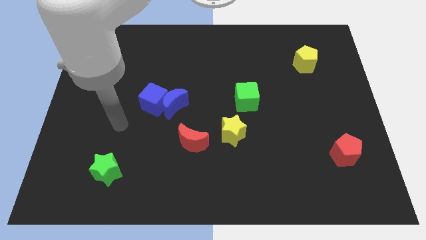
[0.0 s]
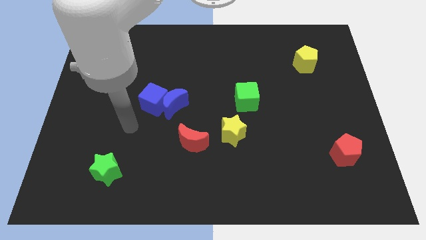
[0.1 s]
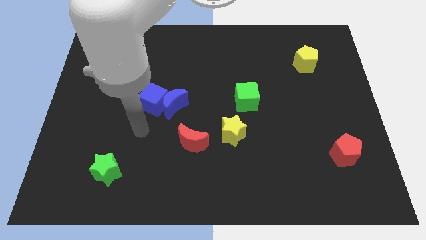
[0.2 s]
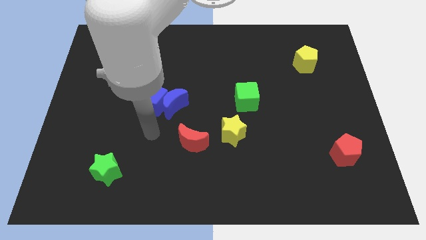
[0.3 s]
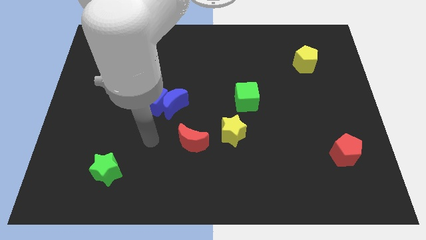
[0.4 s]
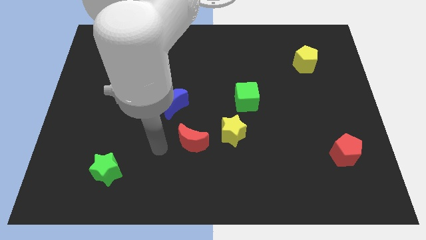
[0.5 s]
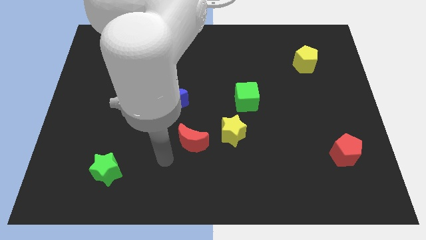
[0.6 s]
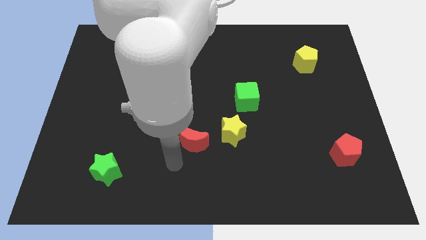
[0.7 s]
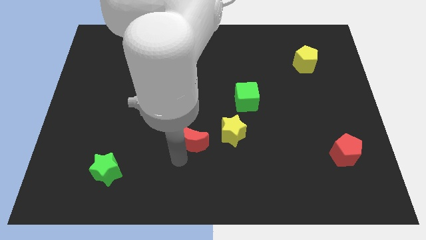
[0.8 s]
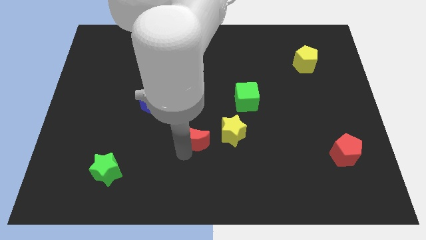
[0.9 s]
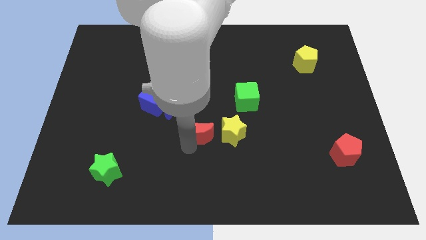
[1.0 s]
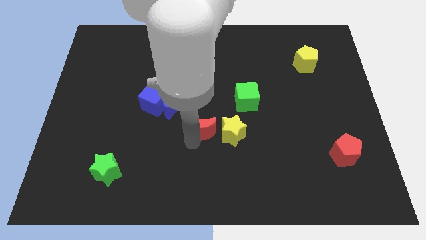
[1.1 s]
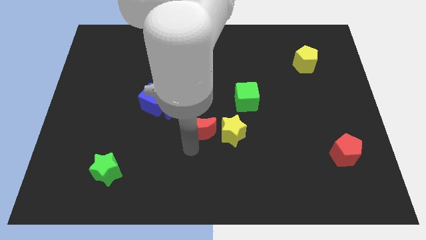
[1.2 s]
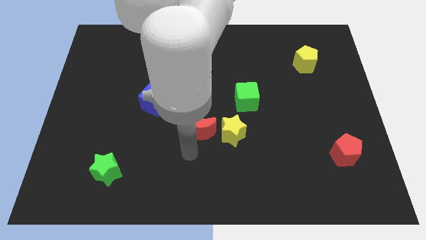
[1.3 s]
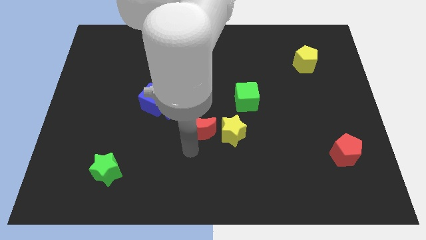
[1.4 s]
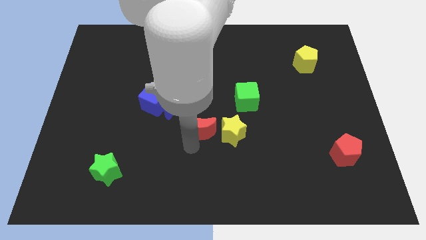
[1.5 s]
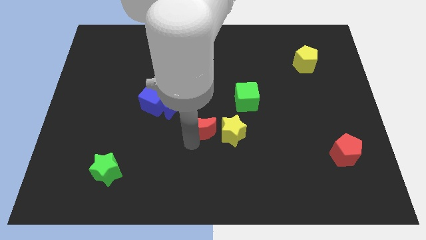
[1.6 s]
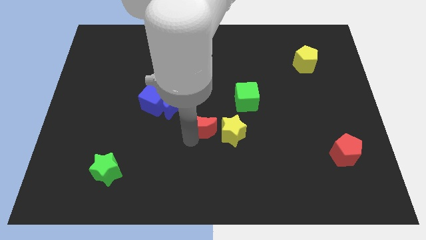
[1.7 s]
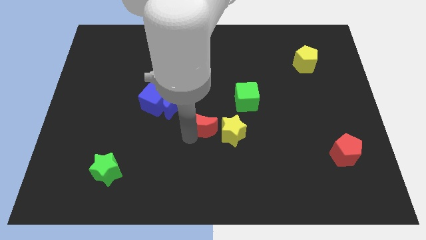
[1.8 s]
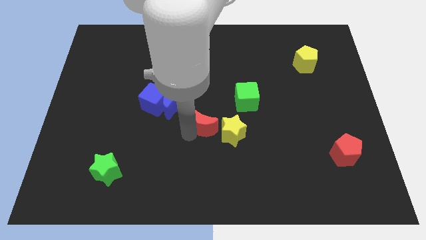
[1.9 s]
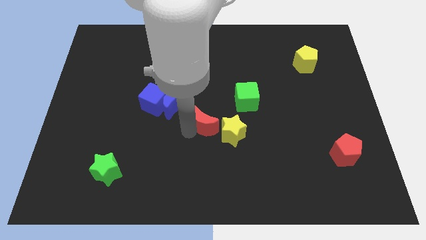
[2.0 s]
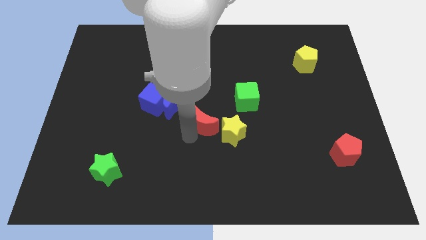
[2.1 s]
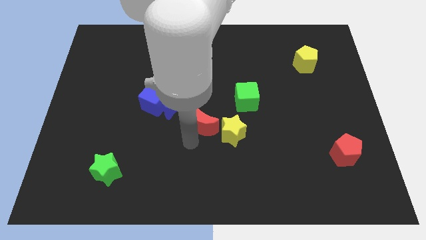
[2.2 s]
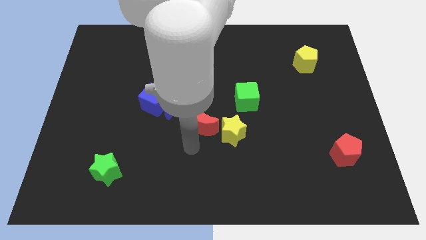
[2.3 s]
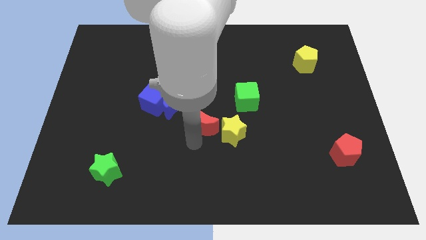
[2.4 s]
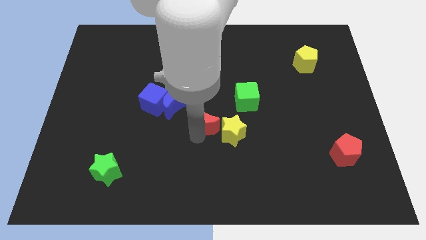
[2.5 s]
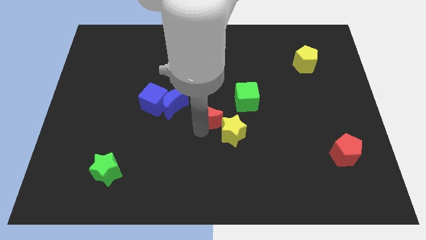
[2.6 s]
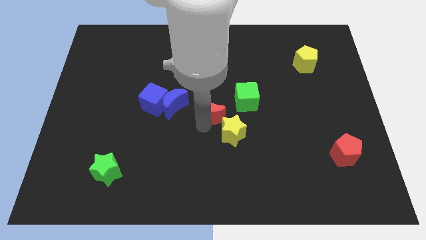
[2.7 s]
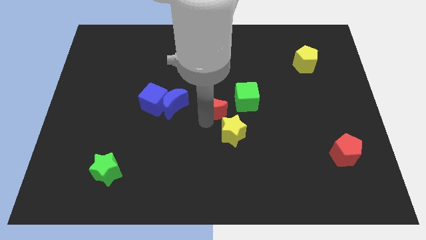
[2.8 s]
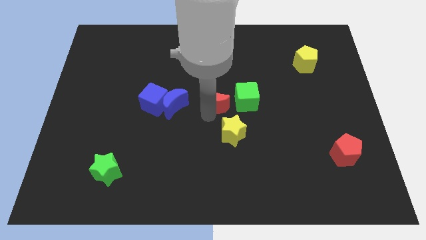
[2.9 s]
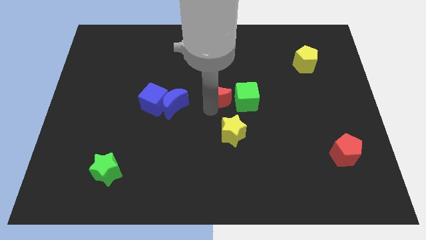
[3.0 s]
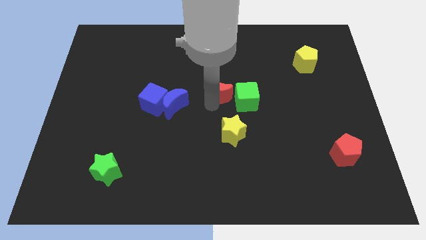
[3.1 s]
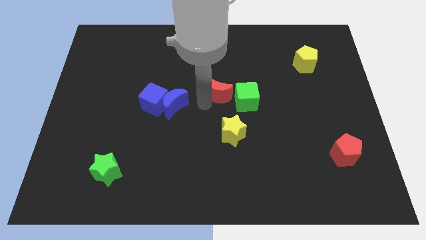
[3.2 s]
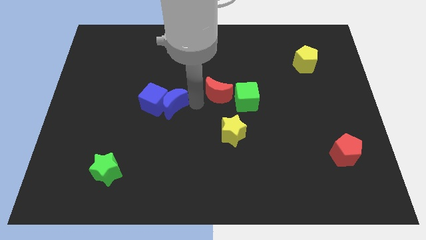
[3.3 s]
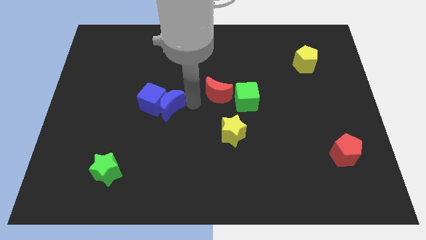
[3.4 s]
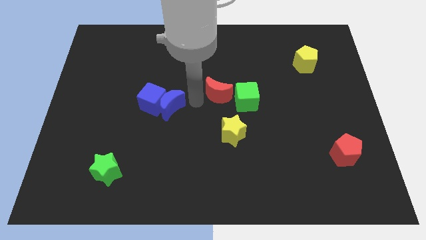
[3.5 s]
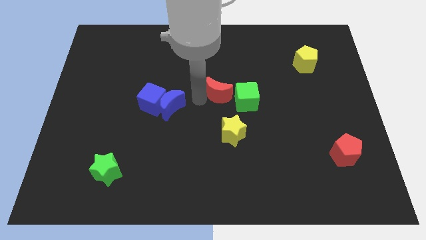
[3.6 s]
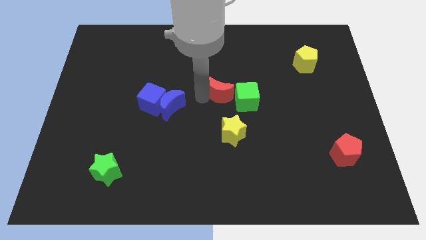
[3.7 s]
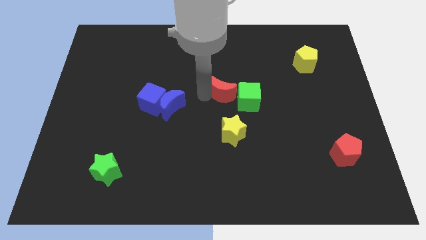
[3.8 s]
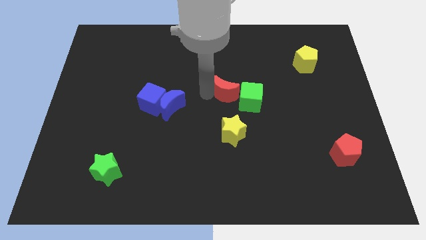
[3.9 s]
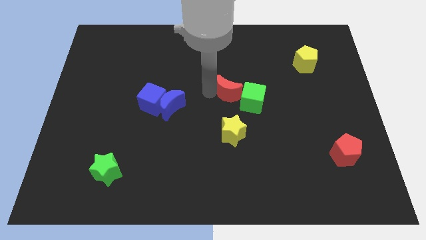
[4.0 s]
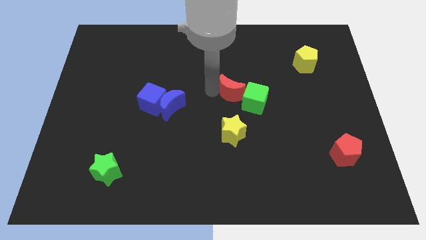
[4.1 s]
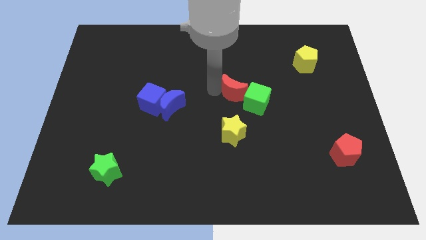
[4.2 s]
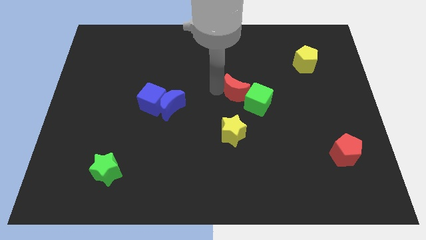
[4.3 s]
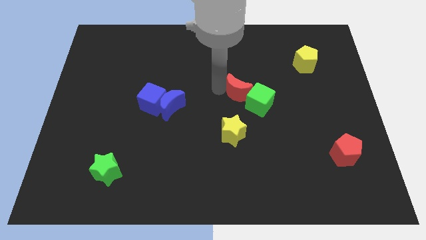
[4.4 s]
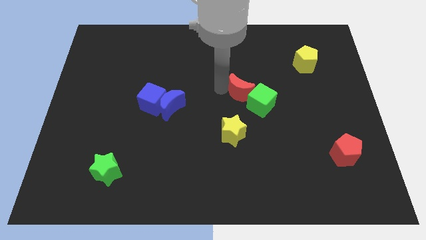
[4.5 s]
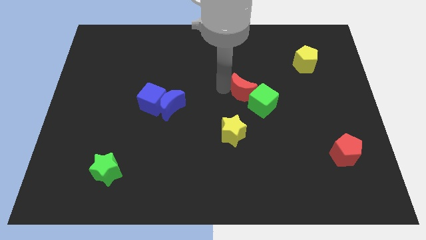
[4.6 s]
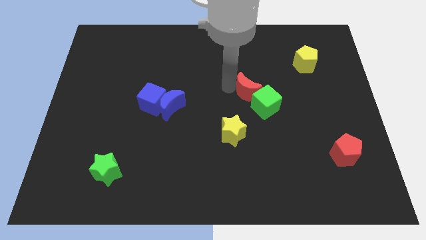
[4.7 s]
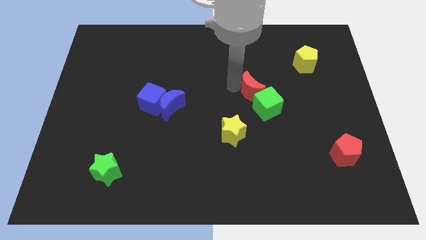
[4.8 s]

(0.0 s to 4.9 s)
push the red moon diagonally upwards and to the right

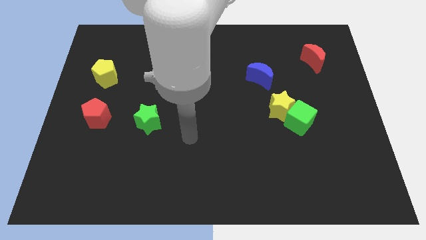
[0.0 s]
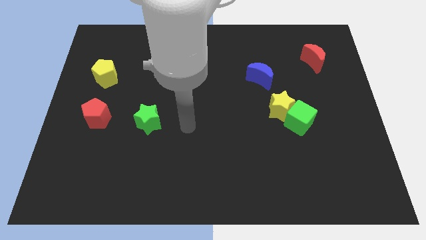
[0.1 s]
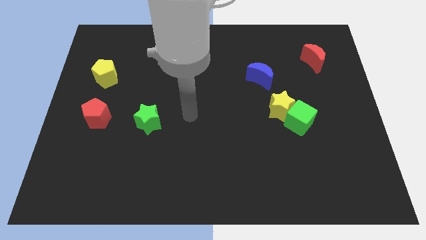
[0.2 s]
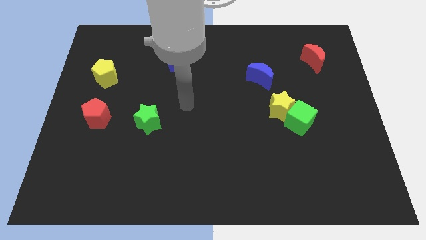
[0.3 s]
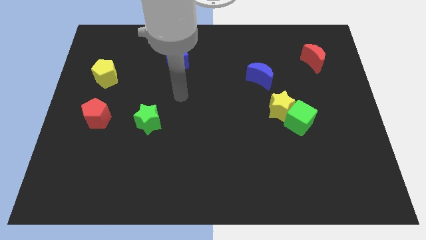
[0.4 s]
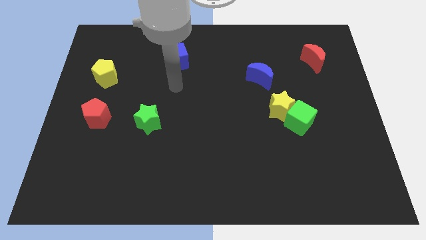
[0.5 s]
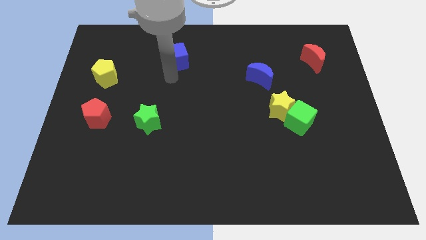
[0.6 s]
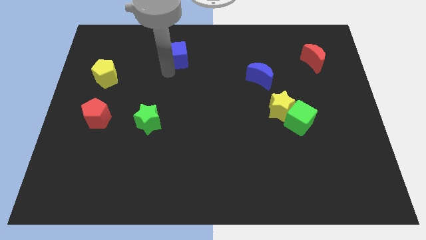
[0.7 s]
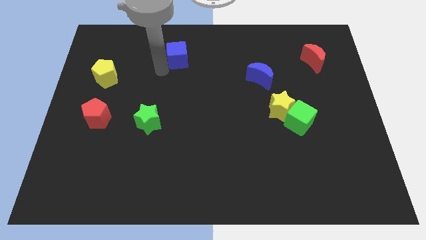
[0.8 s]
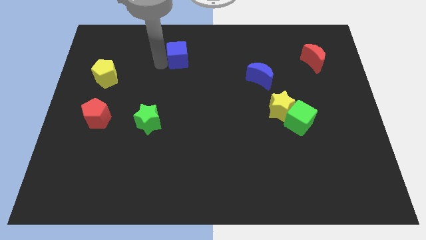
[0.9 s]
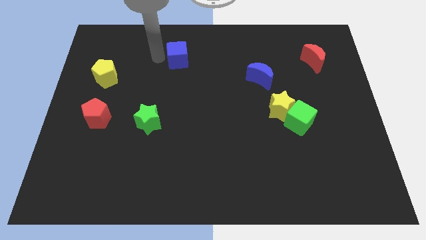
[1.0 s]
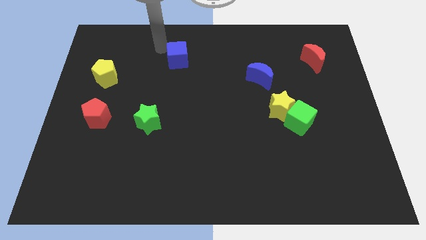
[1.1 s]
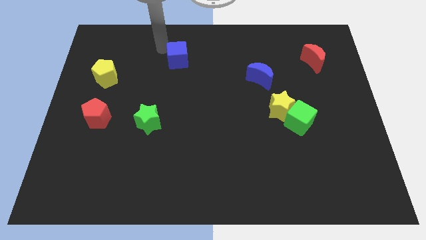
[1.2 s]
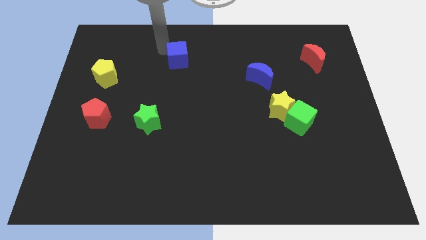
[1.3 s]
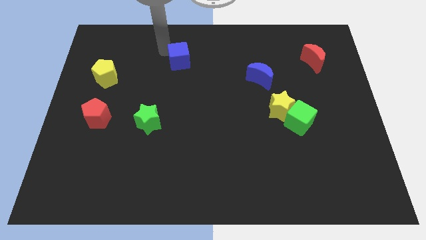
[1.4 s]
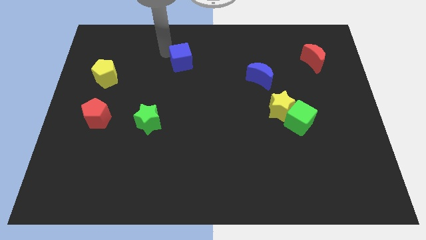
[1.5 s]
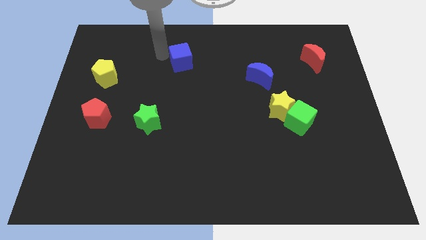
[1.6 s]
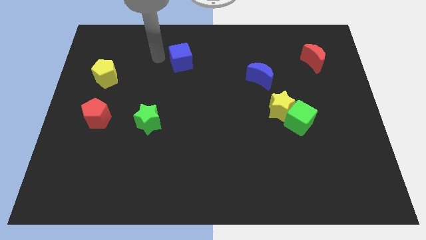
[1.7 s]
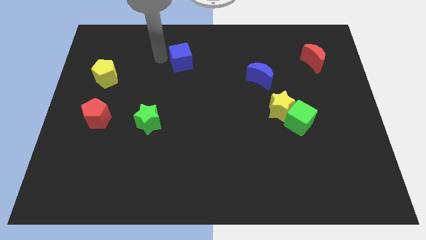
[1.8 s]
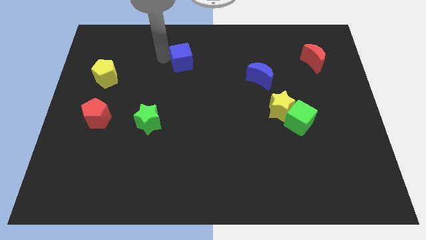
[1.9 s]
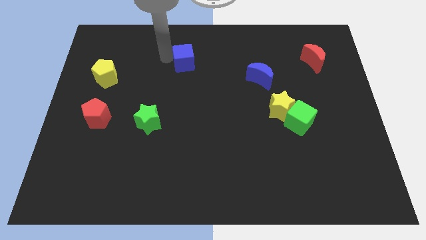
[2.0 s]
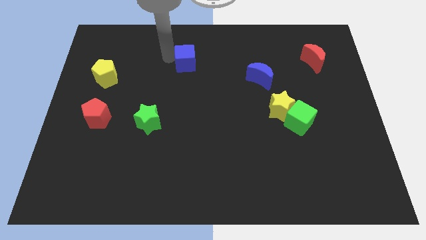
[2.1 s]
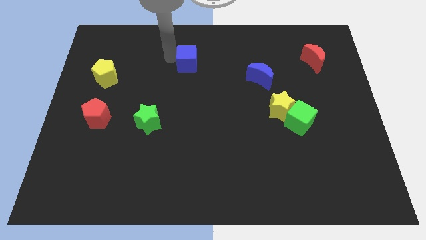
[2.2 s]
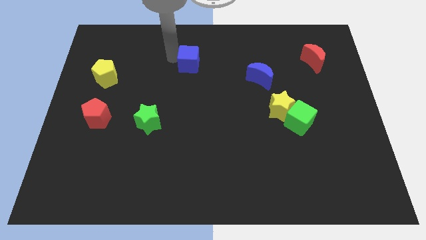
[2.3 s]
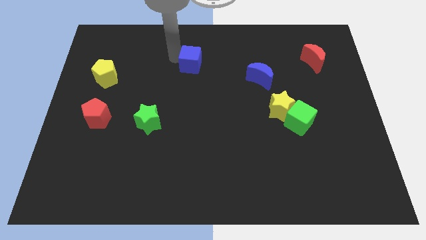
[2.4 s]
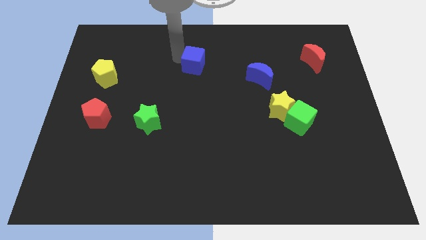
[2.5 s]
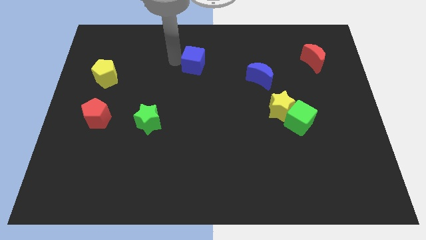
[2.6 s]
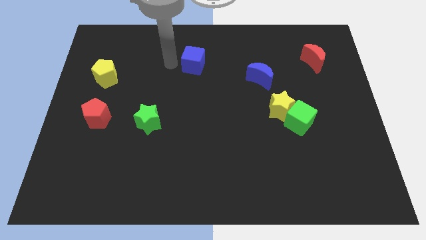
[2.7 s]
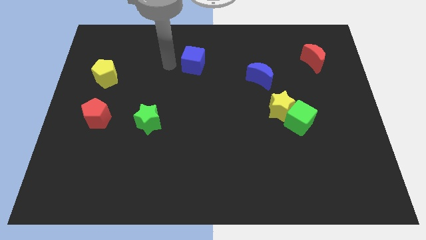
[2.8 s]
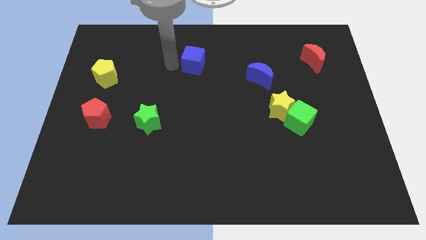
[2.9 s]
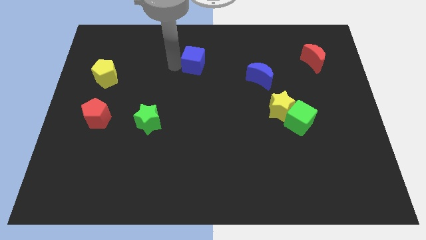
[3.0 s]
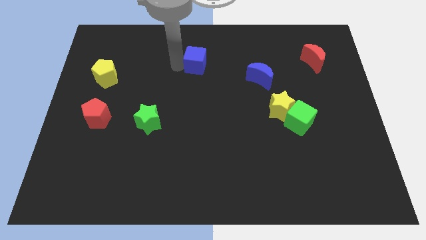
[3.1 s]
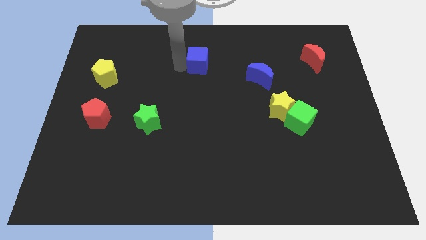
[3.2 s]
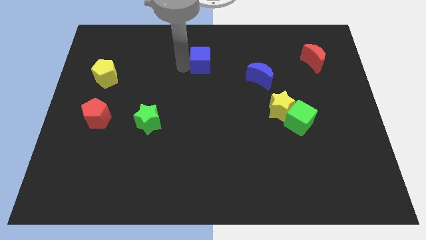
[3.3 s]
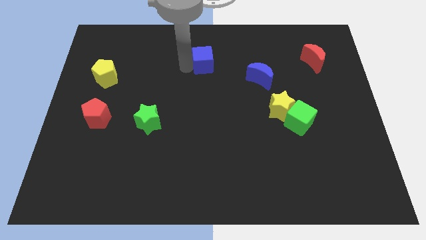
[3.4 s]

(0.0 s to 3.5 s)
move the blue cube somewhat to the right

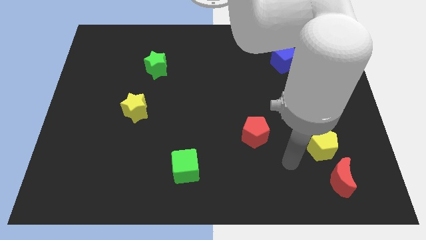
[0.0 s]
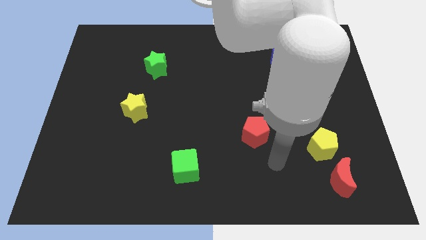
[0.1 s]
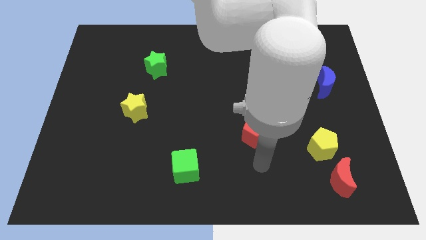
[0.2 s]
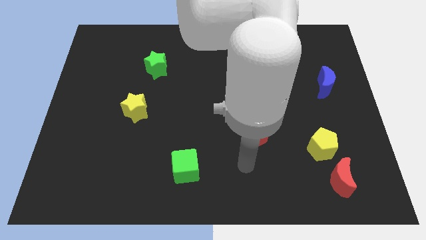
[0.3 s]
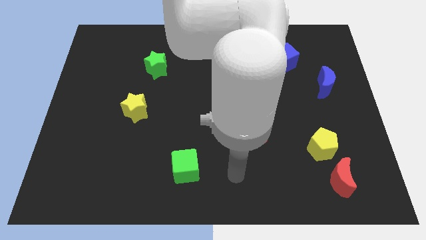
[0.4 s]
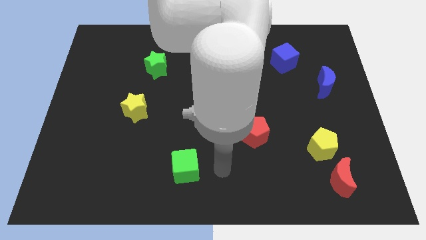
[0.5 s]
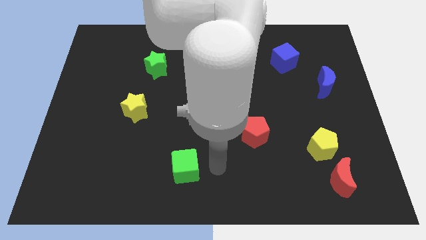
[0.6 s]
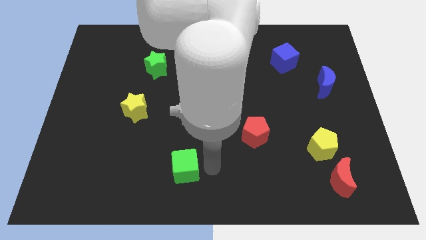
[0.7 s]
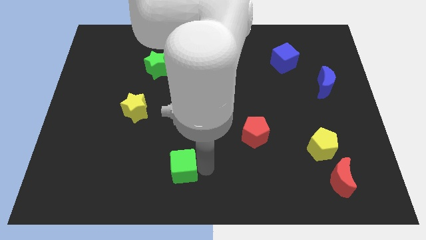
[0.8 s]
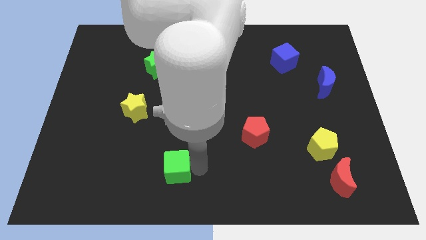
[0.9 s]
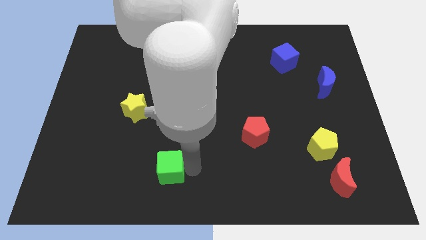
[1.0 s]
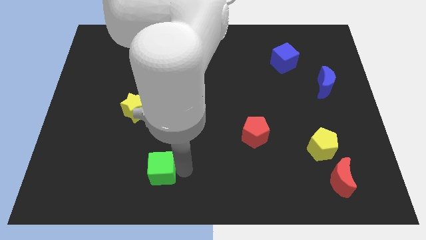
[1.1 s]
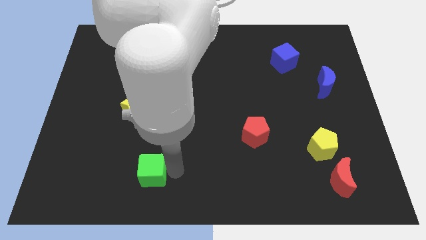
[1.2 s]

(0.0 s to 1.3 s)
slide the green cube left a little bit
